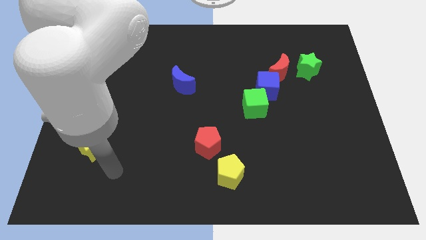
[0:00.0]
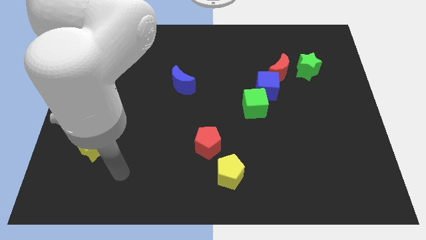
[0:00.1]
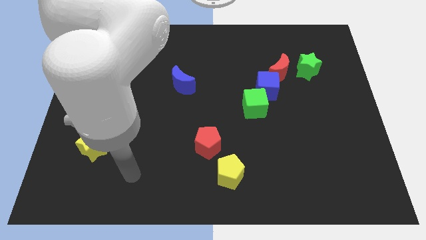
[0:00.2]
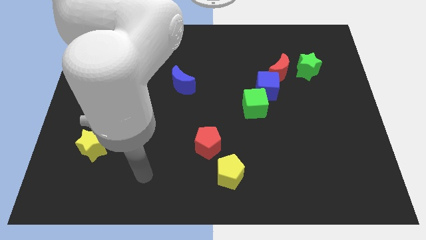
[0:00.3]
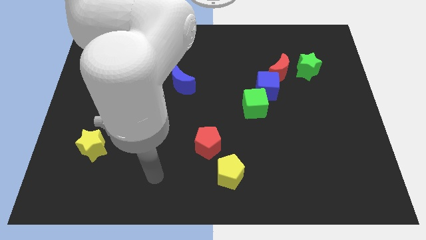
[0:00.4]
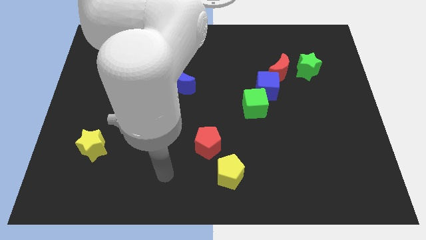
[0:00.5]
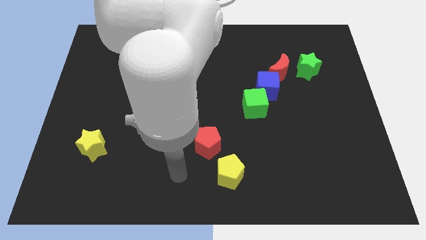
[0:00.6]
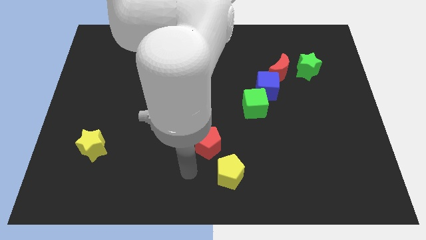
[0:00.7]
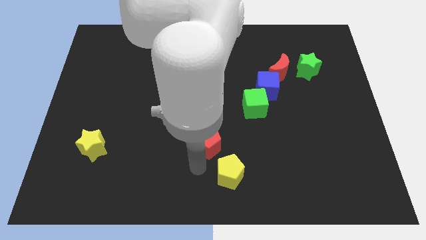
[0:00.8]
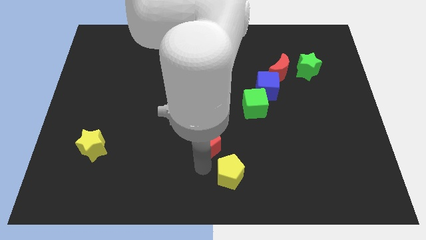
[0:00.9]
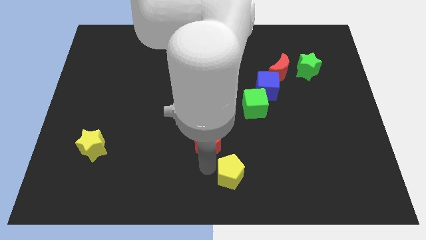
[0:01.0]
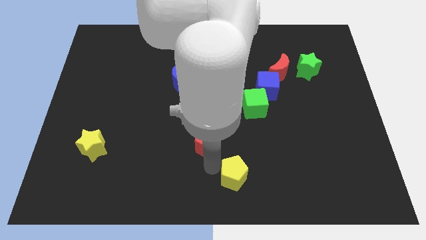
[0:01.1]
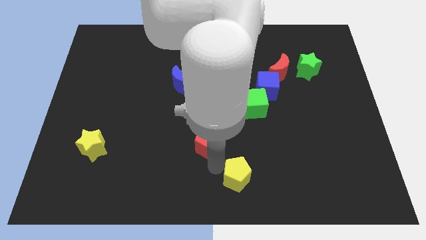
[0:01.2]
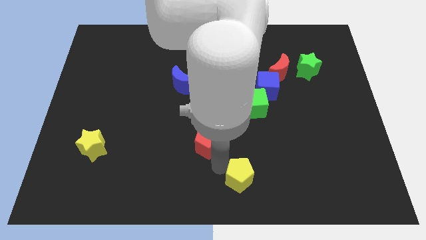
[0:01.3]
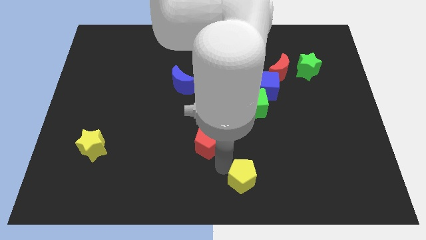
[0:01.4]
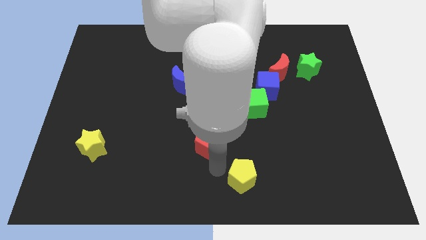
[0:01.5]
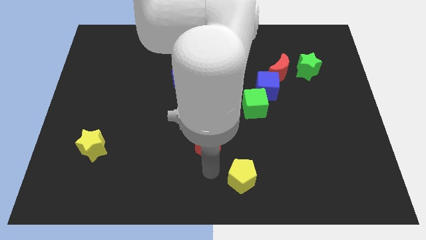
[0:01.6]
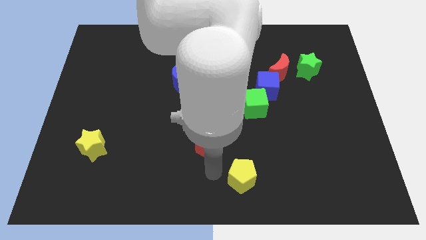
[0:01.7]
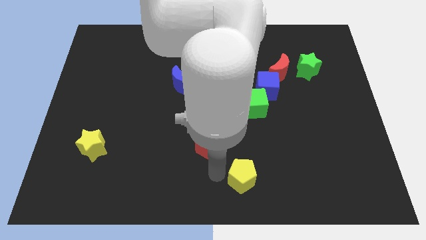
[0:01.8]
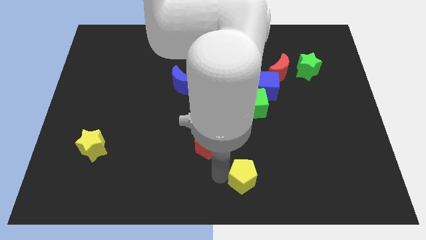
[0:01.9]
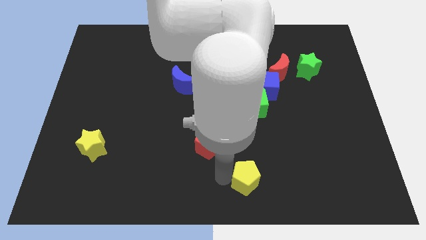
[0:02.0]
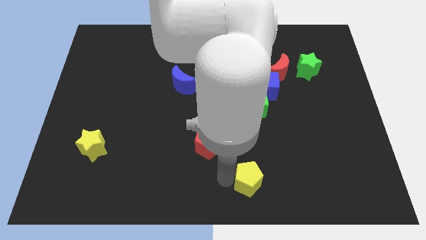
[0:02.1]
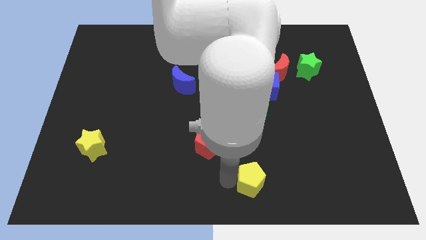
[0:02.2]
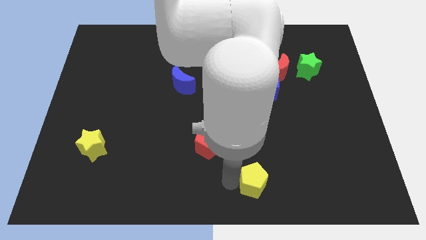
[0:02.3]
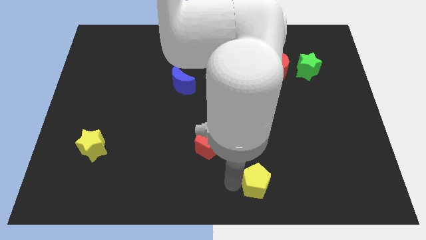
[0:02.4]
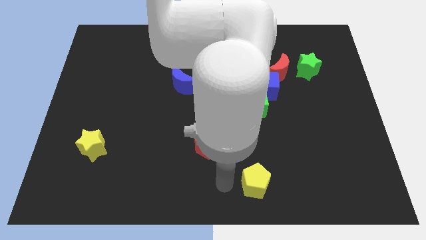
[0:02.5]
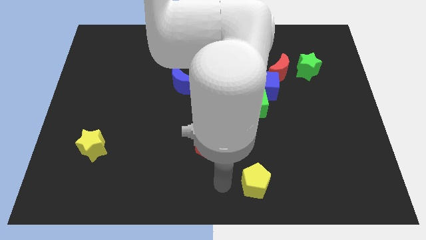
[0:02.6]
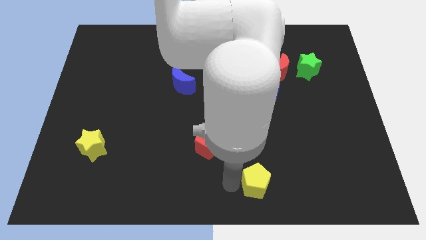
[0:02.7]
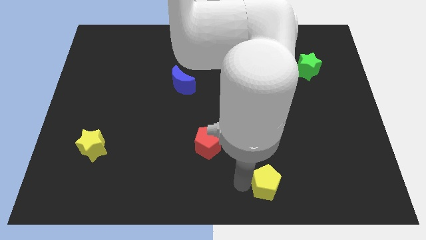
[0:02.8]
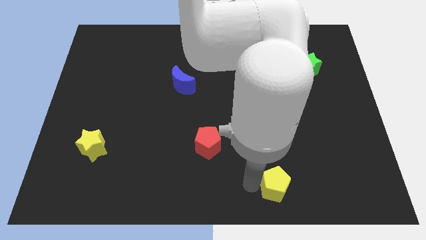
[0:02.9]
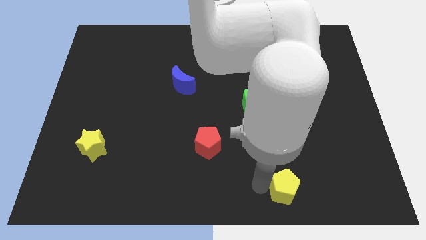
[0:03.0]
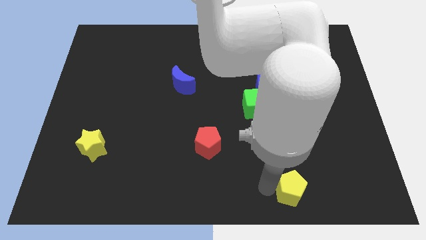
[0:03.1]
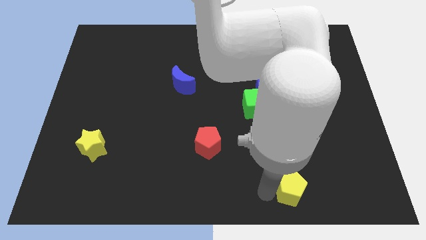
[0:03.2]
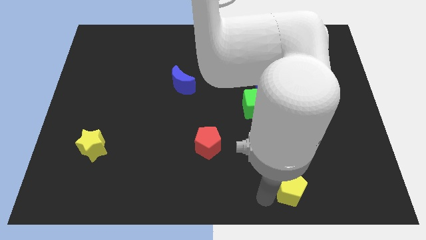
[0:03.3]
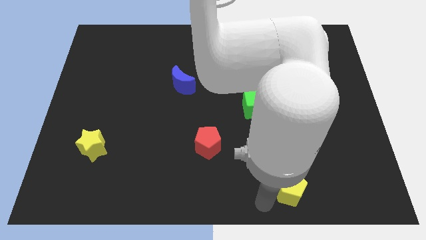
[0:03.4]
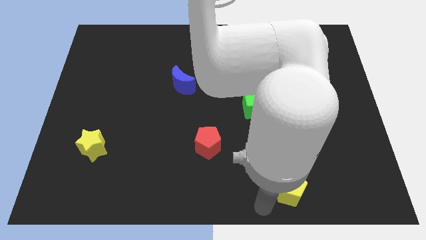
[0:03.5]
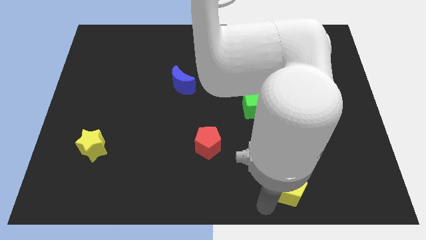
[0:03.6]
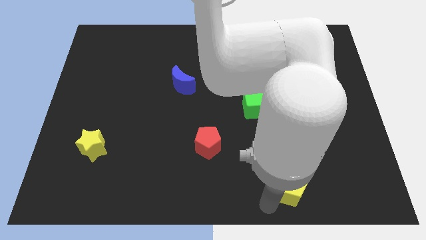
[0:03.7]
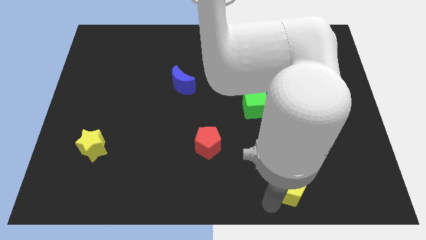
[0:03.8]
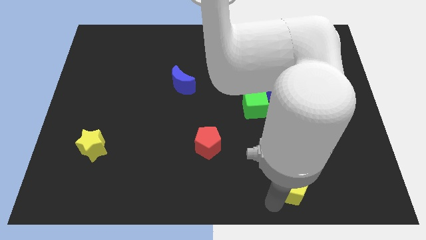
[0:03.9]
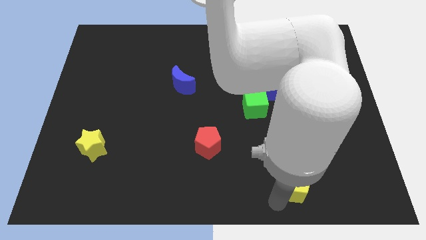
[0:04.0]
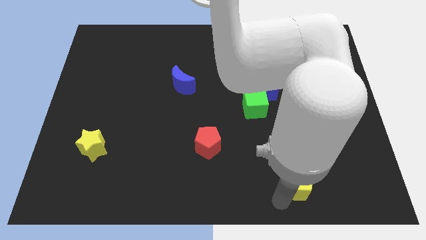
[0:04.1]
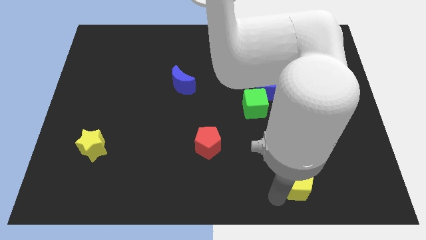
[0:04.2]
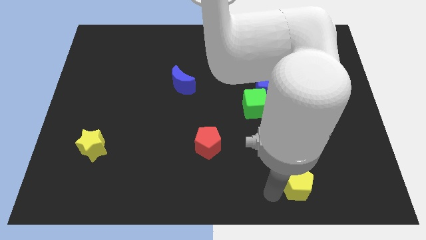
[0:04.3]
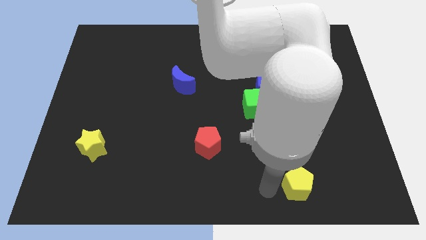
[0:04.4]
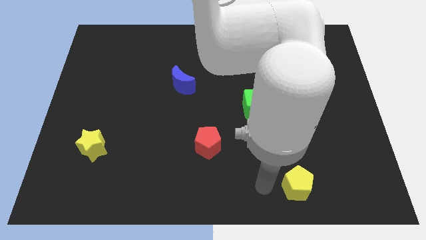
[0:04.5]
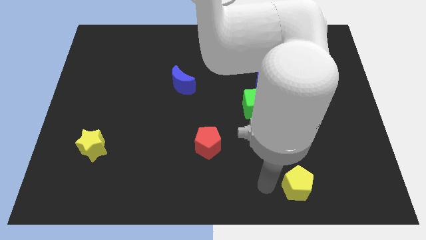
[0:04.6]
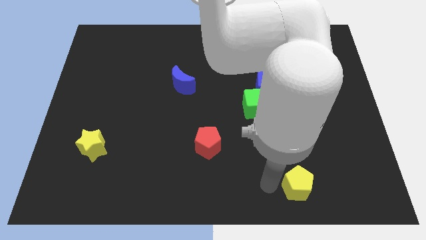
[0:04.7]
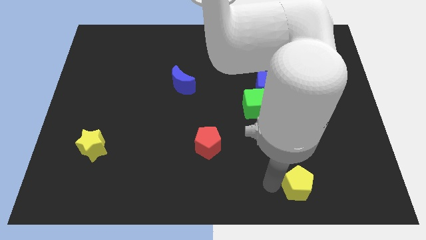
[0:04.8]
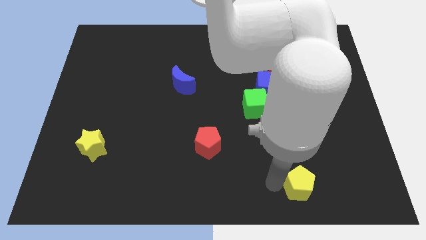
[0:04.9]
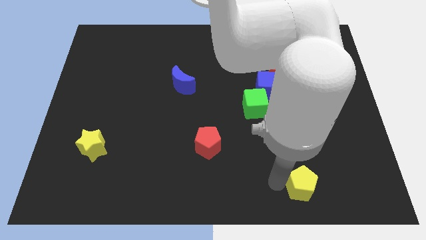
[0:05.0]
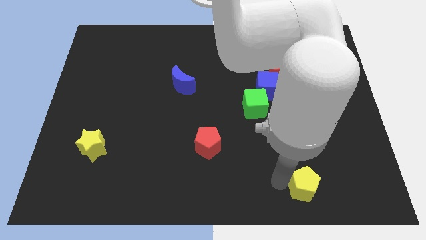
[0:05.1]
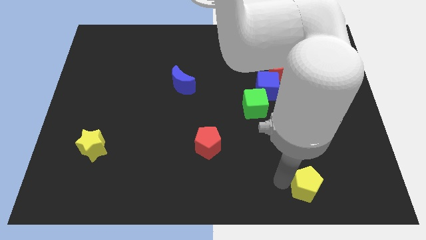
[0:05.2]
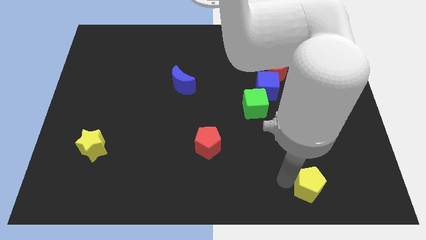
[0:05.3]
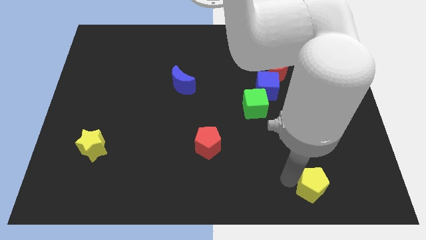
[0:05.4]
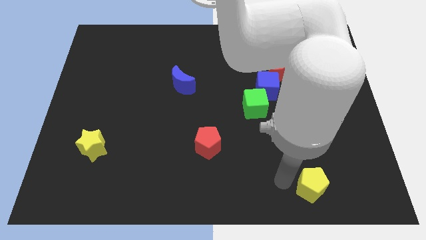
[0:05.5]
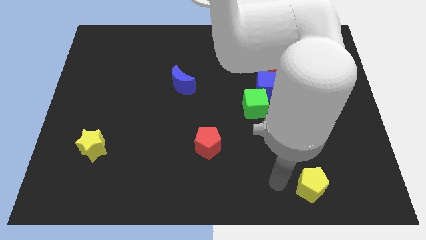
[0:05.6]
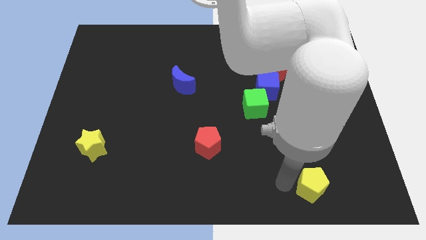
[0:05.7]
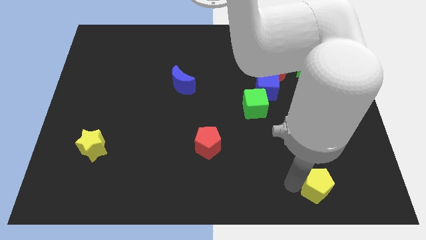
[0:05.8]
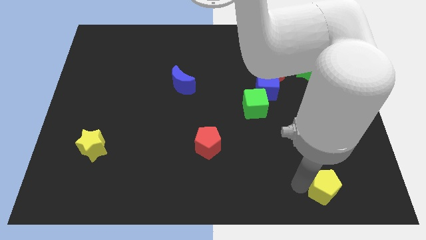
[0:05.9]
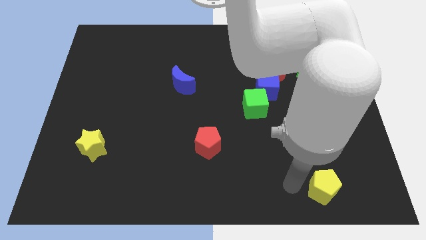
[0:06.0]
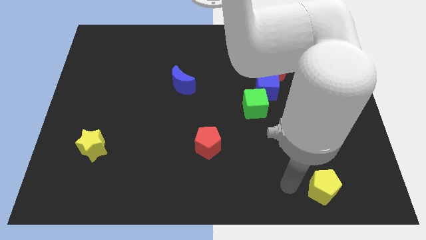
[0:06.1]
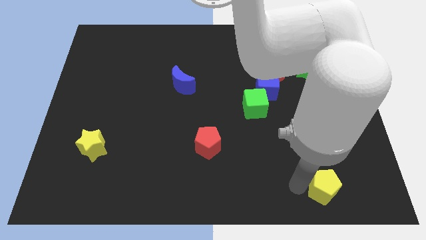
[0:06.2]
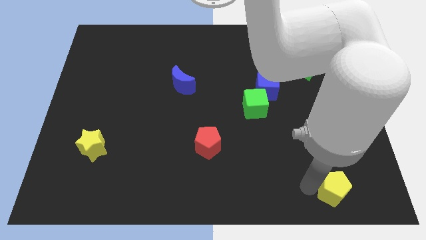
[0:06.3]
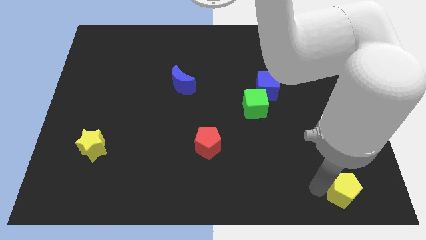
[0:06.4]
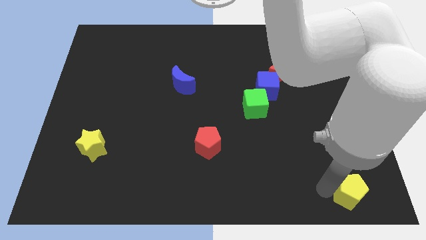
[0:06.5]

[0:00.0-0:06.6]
slide the yellow pentagon to the bottom right of the board
